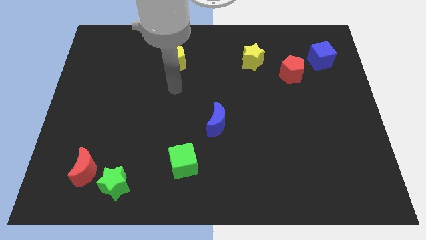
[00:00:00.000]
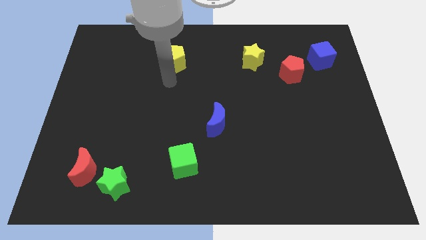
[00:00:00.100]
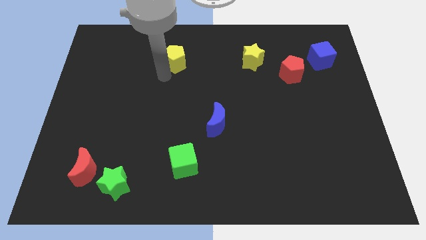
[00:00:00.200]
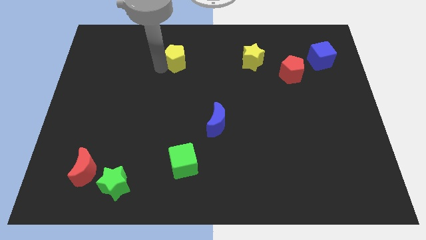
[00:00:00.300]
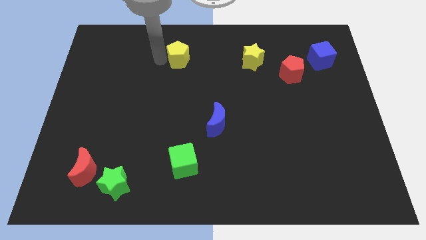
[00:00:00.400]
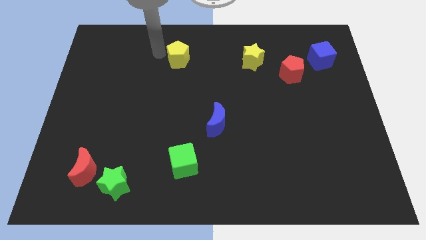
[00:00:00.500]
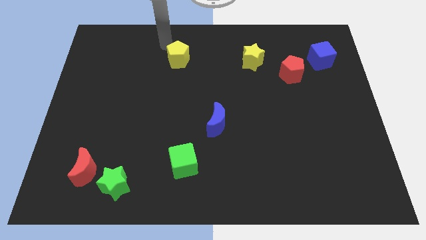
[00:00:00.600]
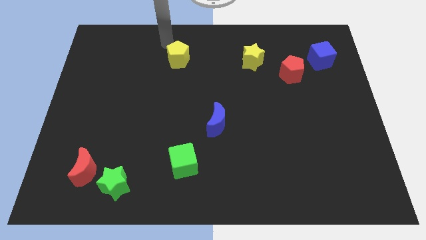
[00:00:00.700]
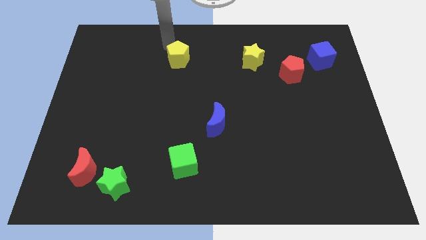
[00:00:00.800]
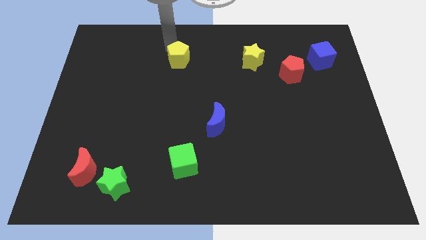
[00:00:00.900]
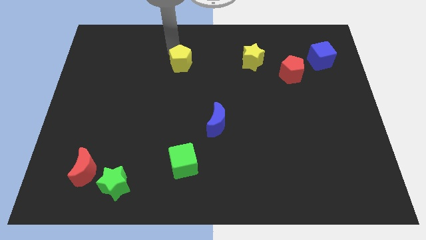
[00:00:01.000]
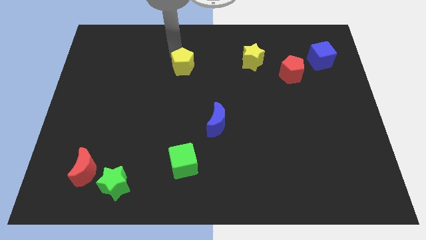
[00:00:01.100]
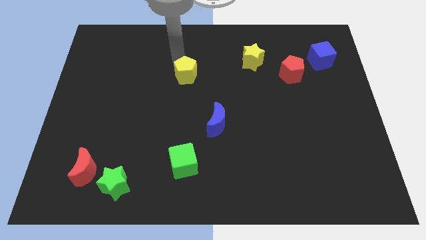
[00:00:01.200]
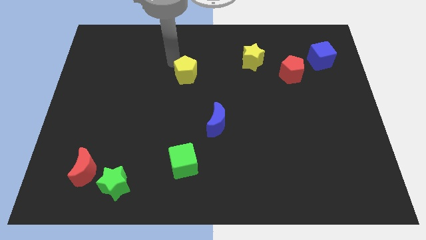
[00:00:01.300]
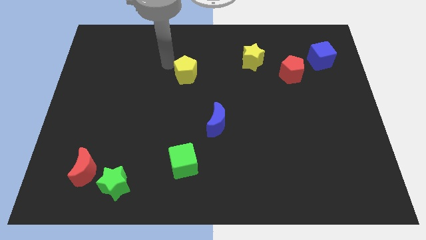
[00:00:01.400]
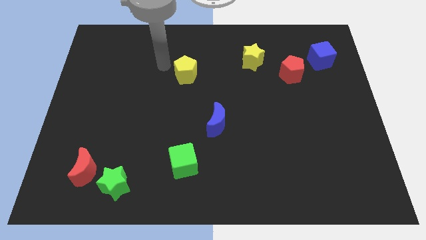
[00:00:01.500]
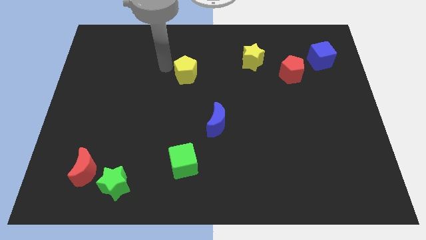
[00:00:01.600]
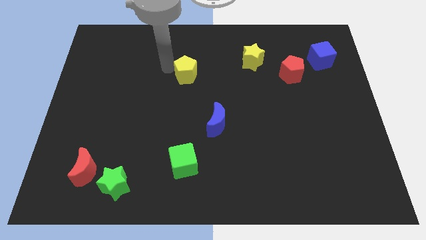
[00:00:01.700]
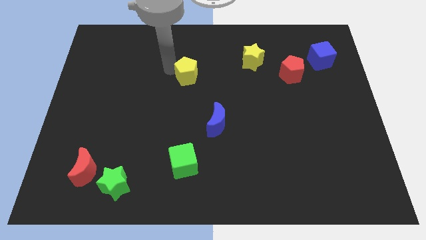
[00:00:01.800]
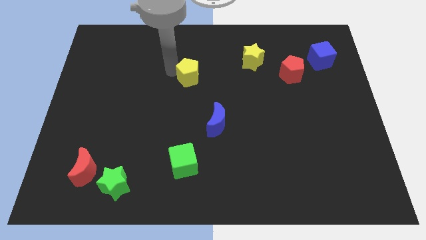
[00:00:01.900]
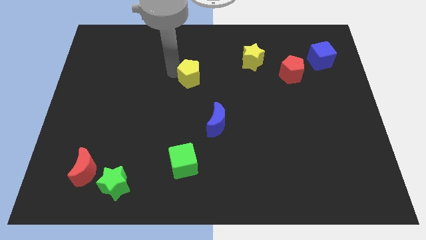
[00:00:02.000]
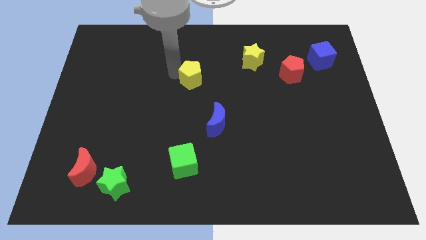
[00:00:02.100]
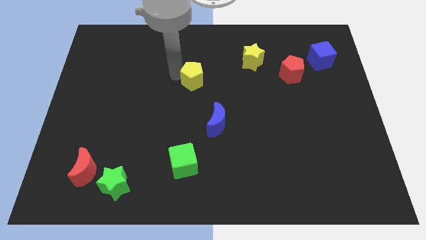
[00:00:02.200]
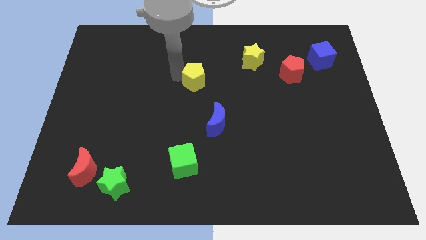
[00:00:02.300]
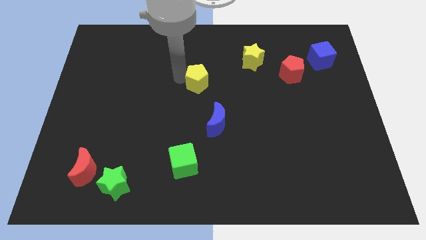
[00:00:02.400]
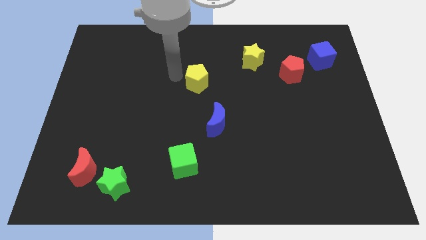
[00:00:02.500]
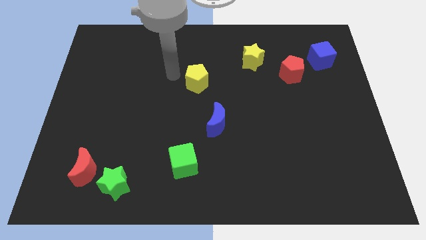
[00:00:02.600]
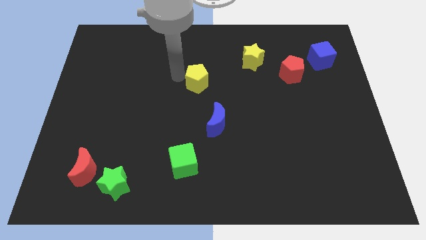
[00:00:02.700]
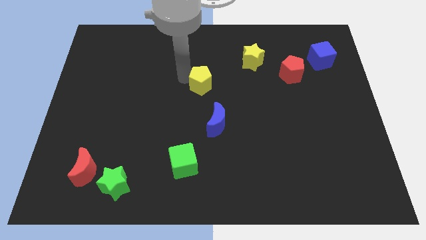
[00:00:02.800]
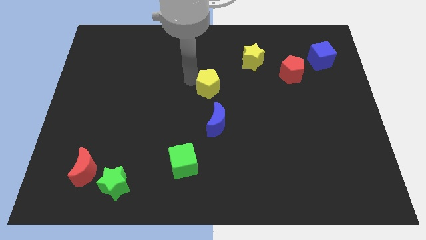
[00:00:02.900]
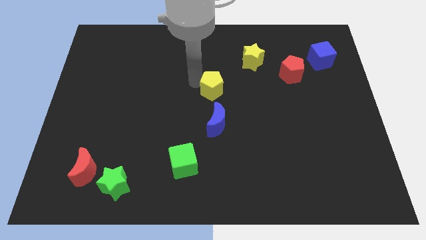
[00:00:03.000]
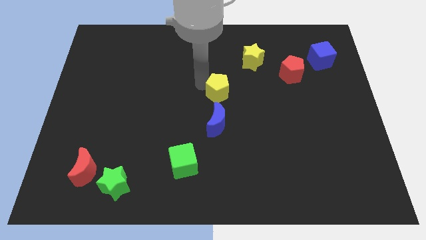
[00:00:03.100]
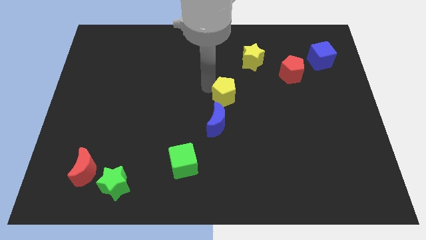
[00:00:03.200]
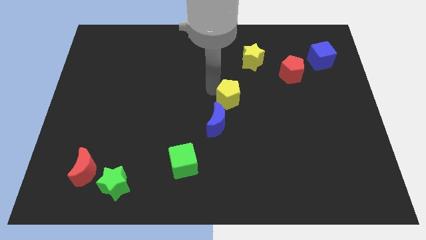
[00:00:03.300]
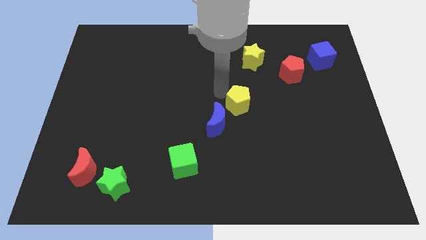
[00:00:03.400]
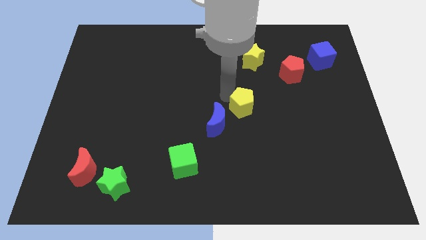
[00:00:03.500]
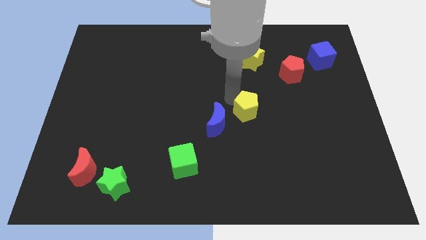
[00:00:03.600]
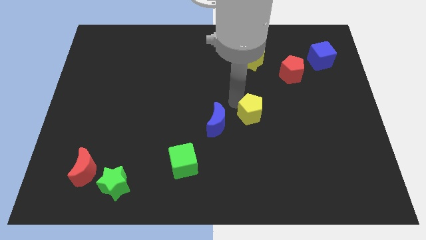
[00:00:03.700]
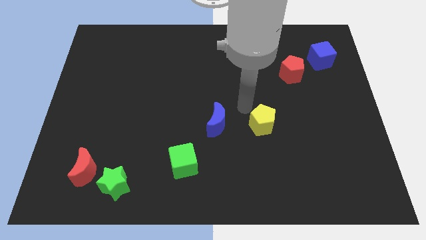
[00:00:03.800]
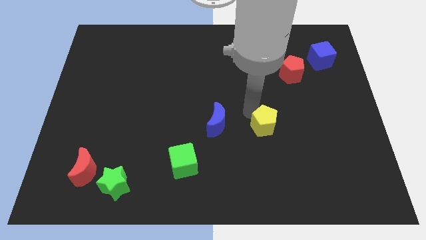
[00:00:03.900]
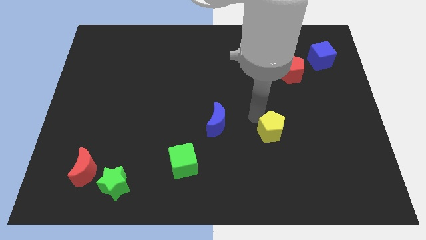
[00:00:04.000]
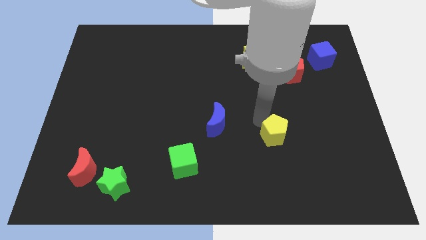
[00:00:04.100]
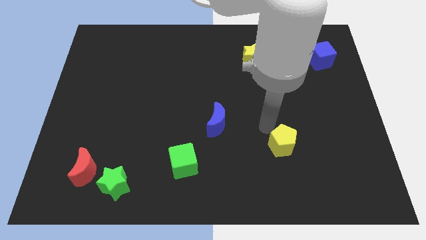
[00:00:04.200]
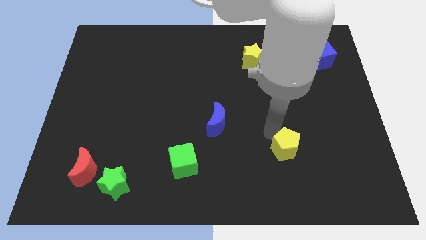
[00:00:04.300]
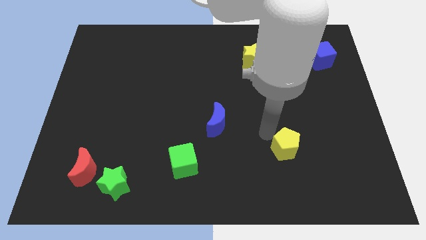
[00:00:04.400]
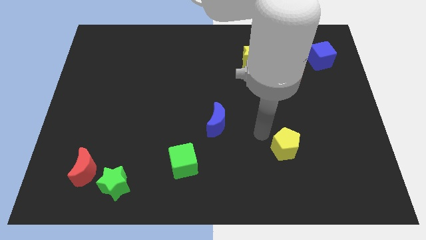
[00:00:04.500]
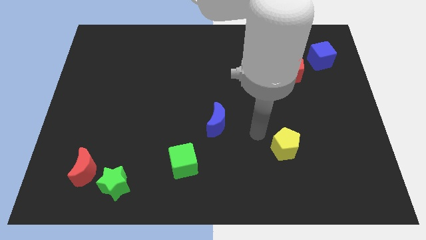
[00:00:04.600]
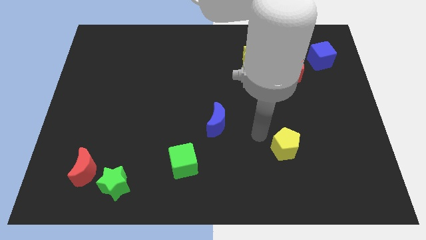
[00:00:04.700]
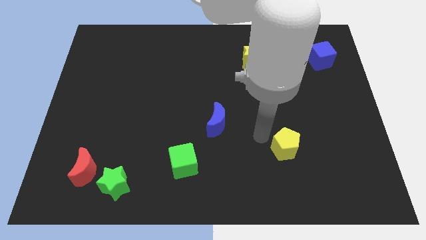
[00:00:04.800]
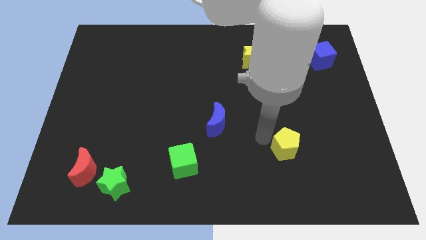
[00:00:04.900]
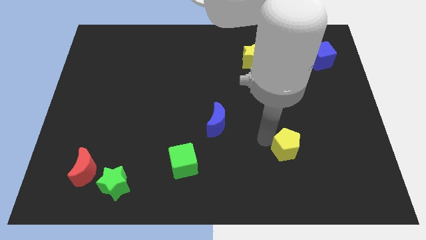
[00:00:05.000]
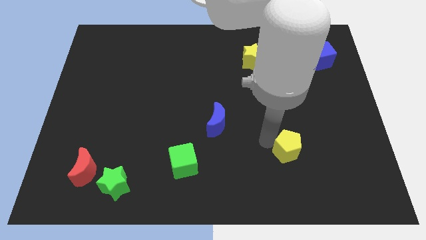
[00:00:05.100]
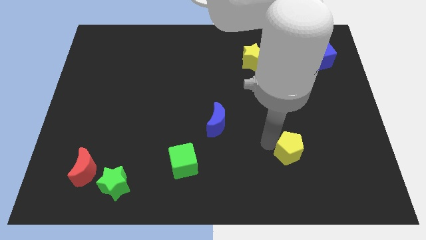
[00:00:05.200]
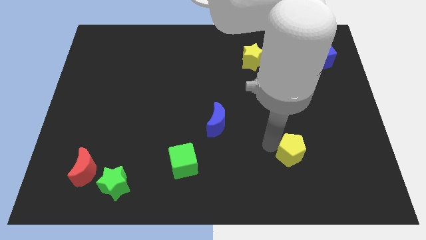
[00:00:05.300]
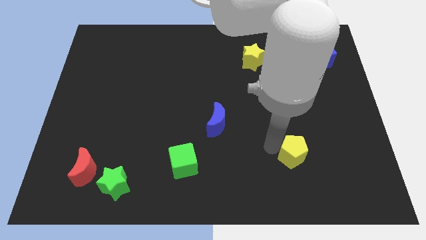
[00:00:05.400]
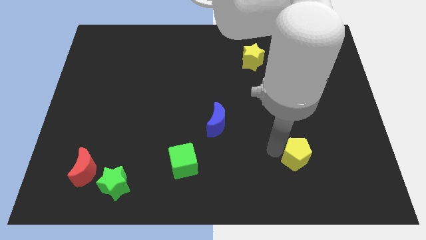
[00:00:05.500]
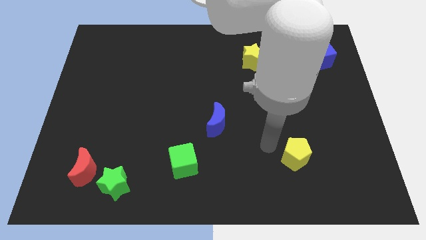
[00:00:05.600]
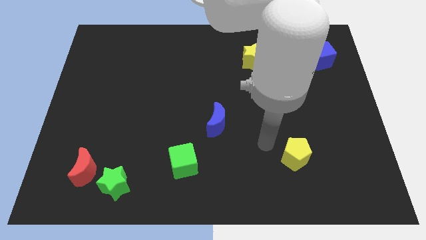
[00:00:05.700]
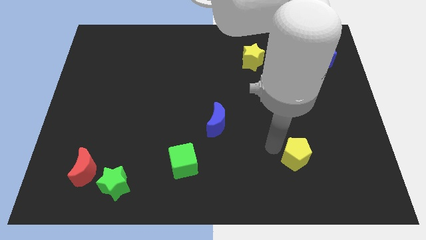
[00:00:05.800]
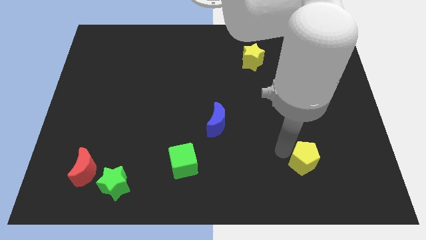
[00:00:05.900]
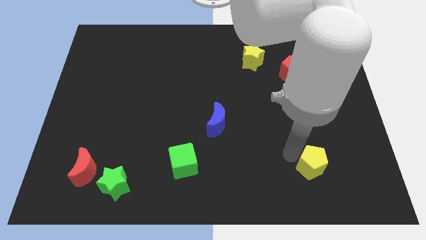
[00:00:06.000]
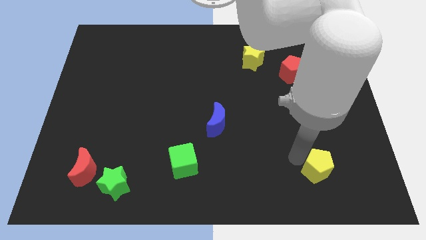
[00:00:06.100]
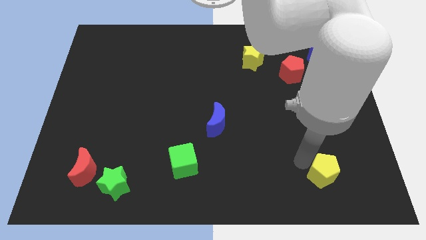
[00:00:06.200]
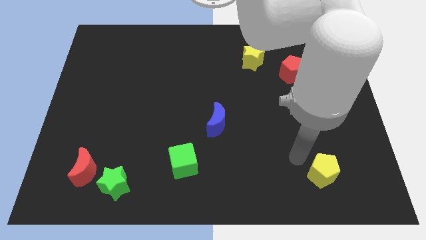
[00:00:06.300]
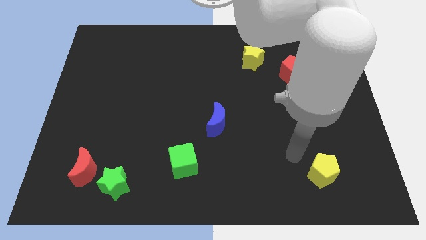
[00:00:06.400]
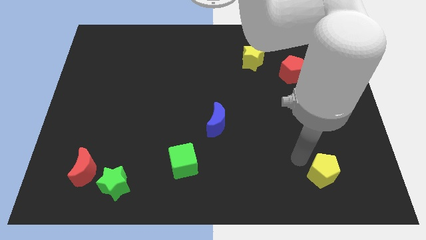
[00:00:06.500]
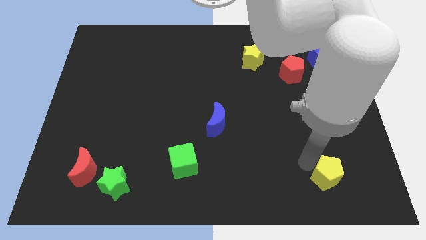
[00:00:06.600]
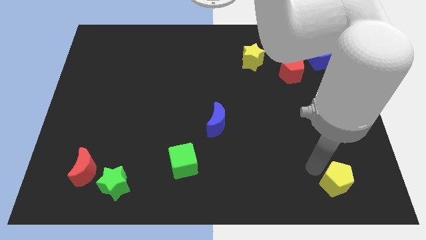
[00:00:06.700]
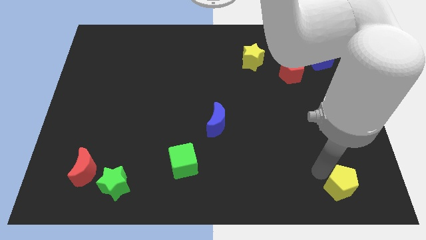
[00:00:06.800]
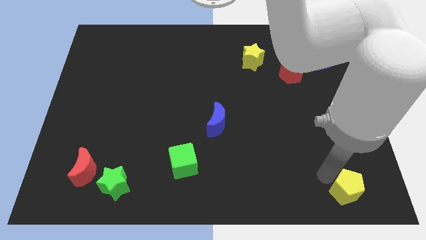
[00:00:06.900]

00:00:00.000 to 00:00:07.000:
move the yellow pentagon to the lower right corner
